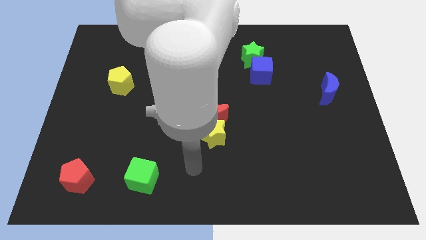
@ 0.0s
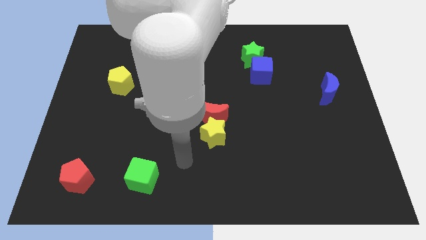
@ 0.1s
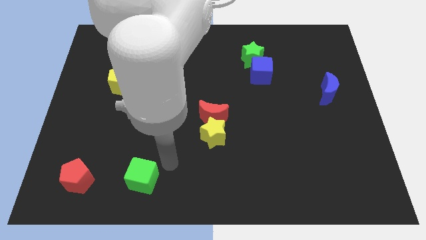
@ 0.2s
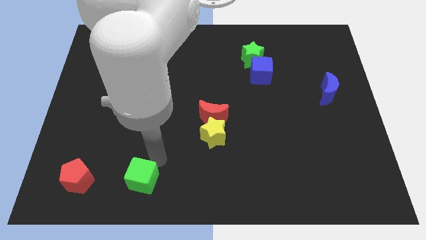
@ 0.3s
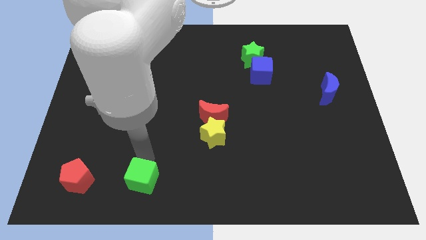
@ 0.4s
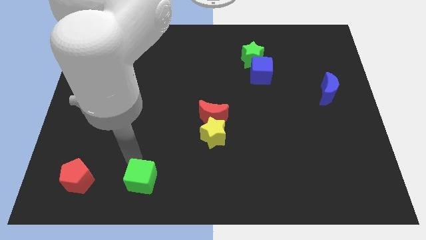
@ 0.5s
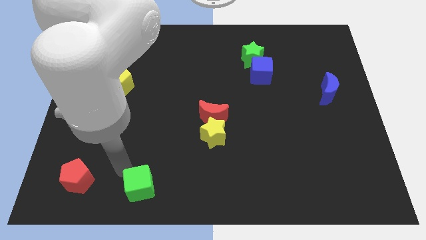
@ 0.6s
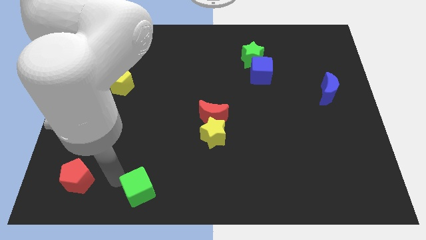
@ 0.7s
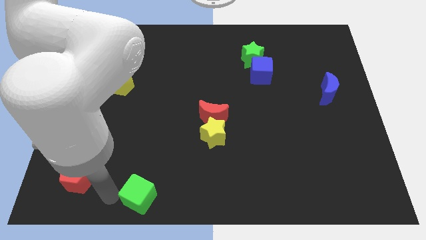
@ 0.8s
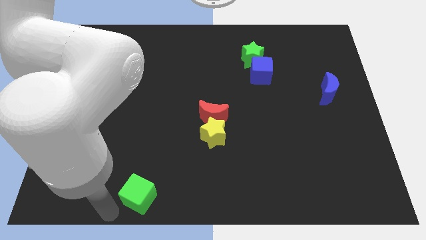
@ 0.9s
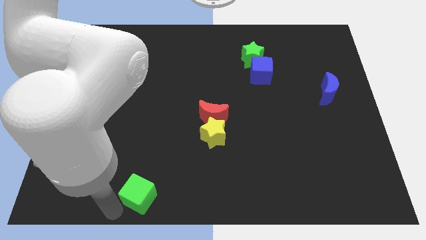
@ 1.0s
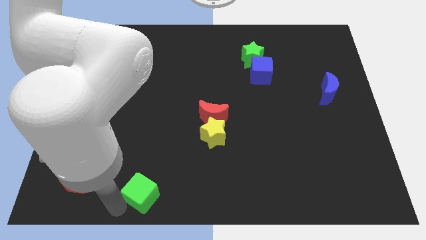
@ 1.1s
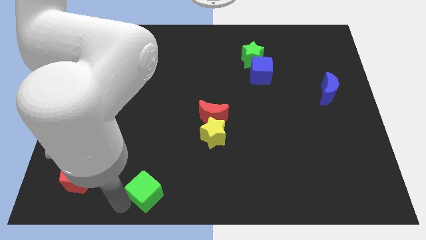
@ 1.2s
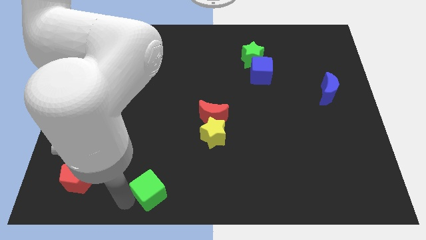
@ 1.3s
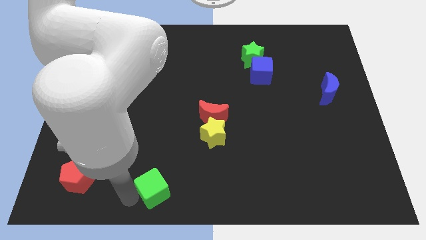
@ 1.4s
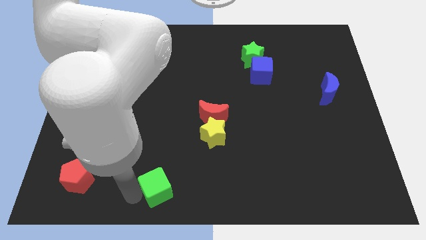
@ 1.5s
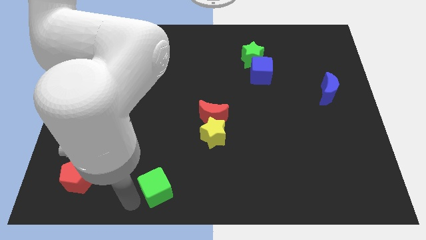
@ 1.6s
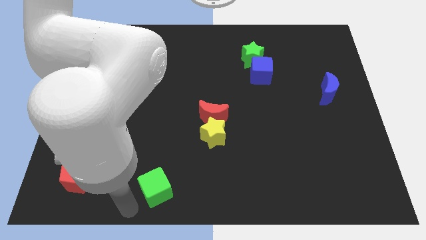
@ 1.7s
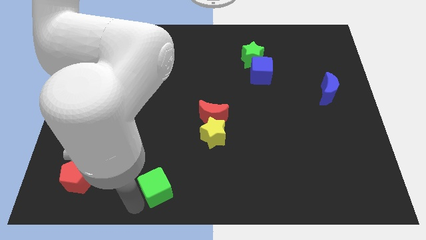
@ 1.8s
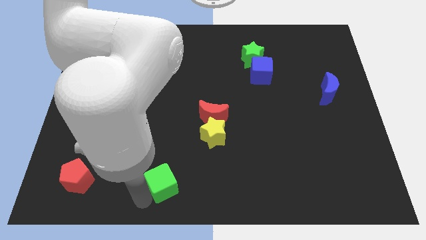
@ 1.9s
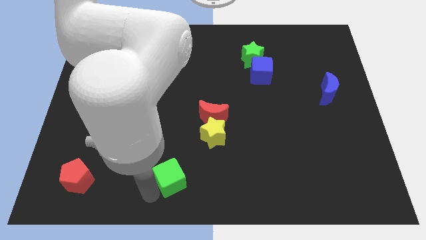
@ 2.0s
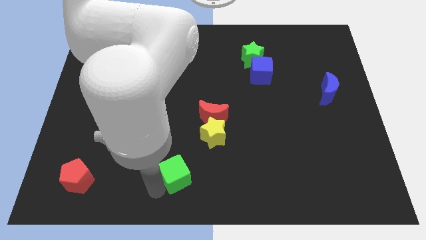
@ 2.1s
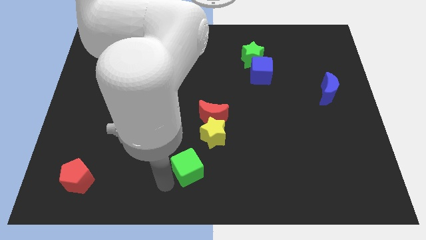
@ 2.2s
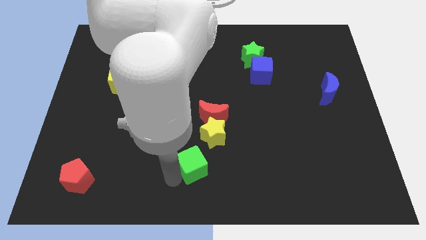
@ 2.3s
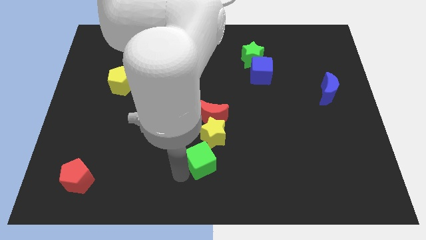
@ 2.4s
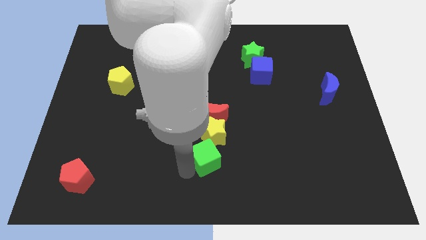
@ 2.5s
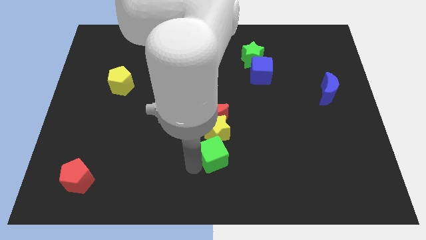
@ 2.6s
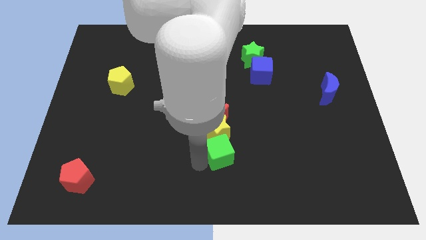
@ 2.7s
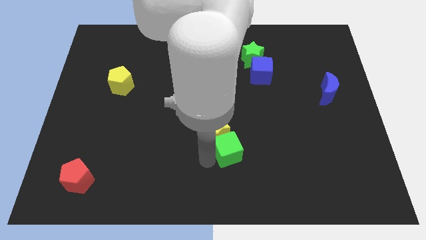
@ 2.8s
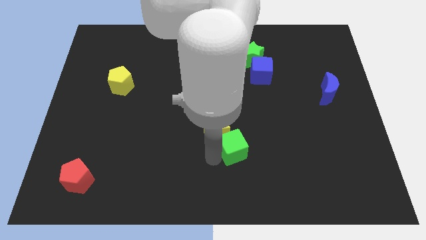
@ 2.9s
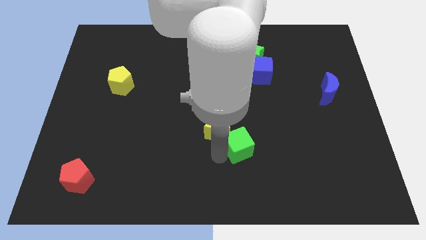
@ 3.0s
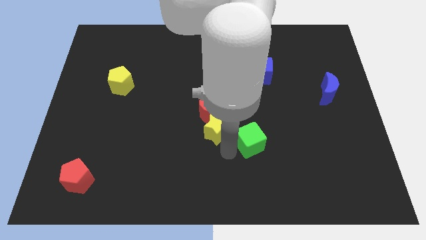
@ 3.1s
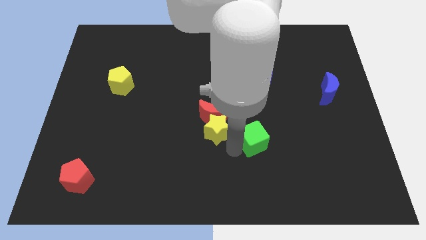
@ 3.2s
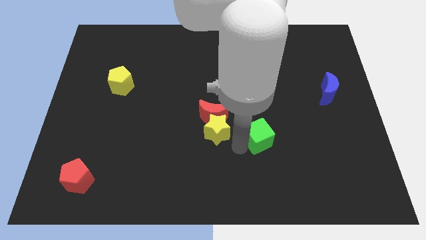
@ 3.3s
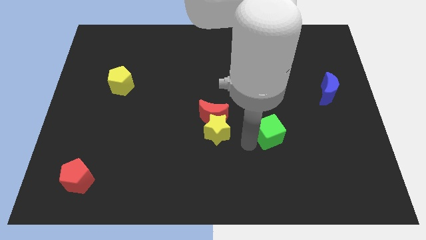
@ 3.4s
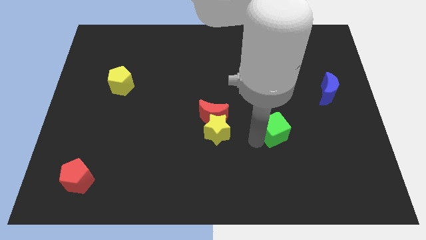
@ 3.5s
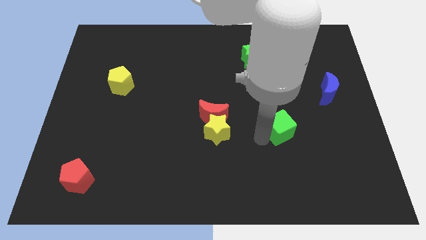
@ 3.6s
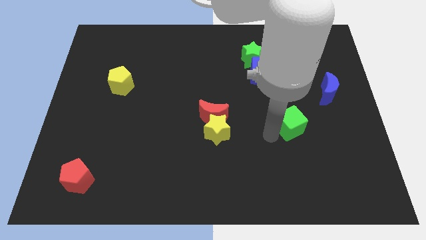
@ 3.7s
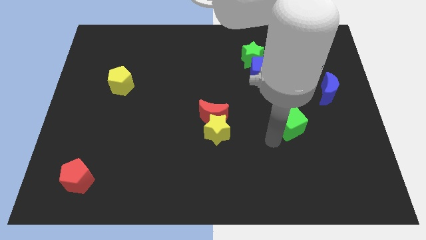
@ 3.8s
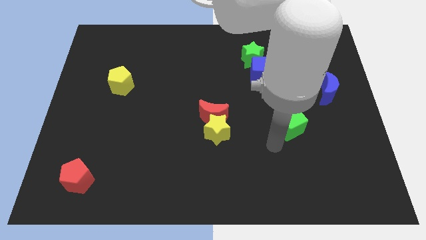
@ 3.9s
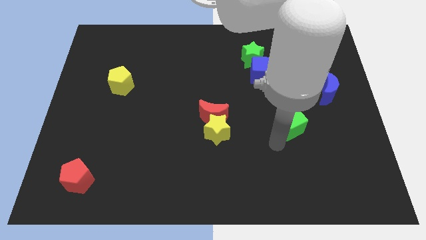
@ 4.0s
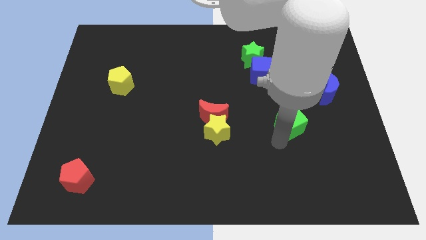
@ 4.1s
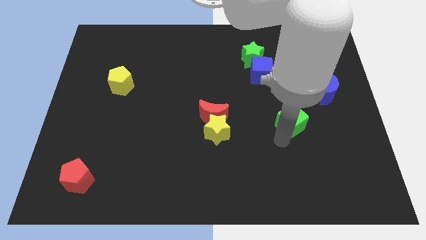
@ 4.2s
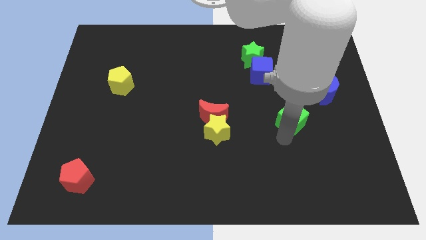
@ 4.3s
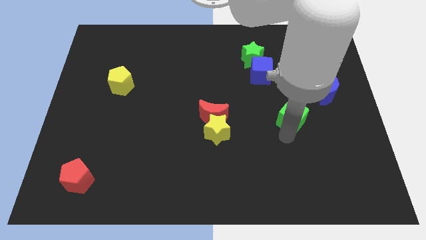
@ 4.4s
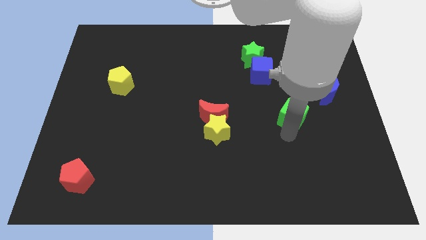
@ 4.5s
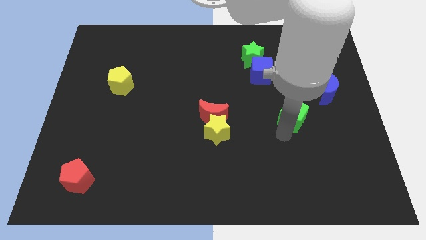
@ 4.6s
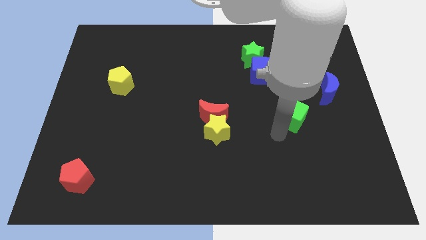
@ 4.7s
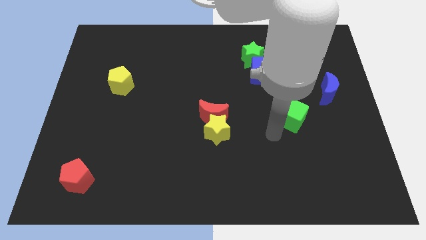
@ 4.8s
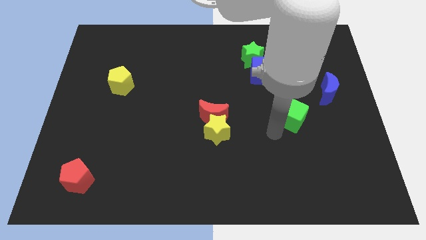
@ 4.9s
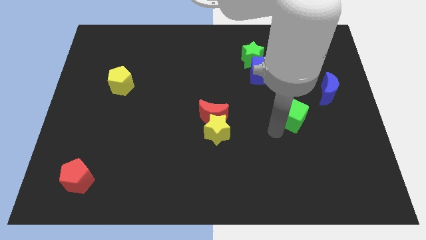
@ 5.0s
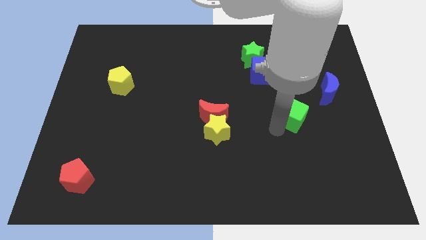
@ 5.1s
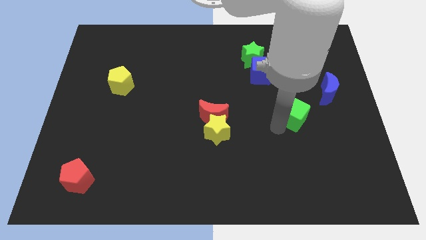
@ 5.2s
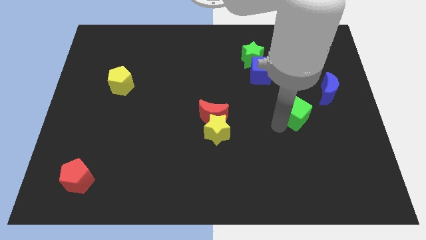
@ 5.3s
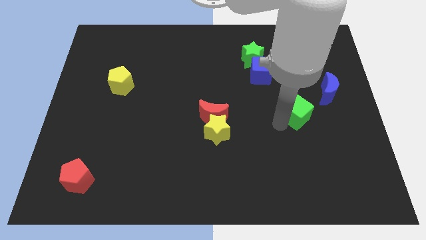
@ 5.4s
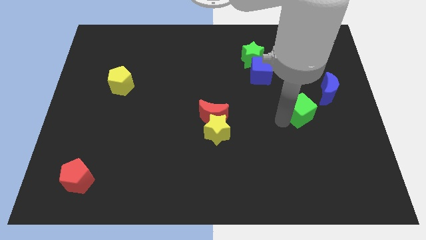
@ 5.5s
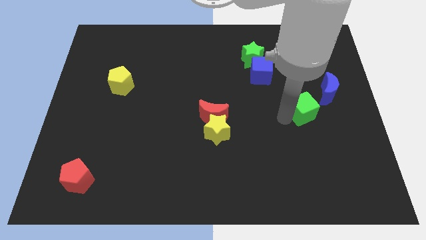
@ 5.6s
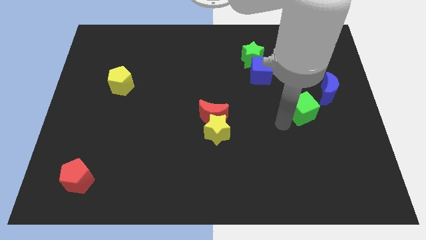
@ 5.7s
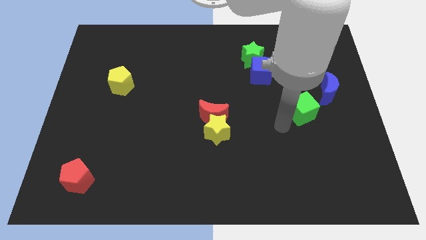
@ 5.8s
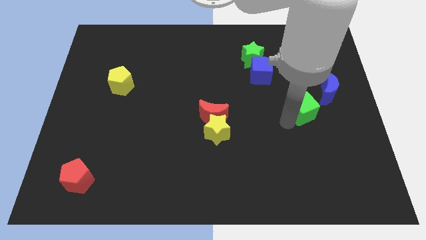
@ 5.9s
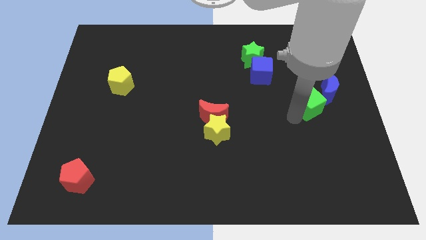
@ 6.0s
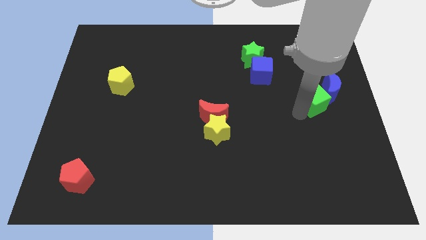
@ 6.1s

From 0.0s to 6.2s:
slide the green cube towards the blue moon

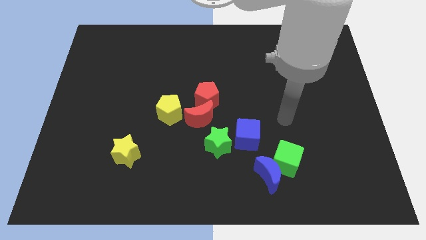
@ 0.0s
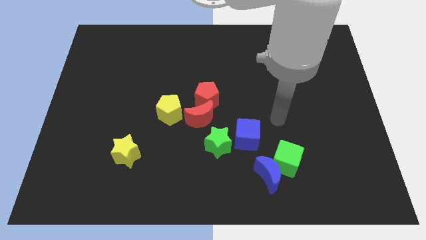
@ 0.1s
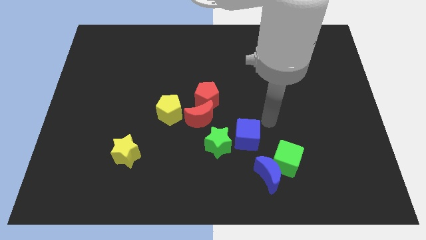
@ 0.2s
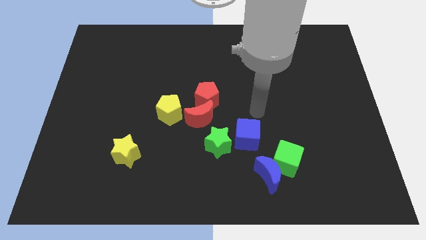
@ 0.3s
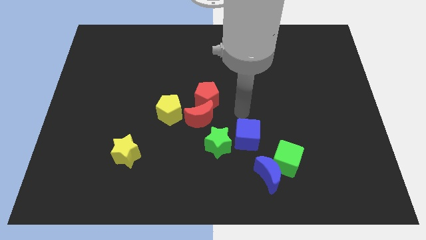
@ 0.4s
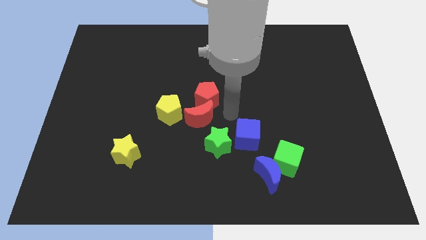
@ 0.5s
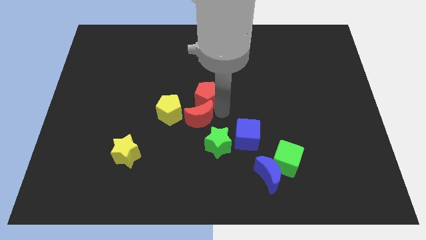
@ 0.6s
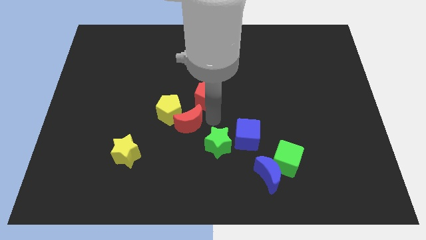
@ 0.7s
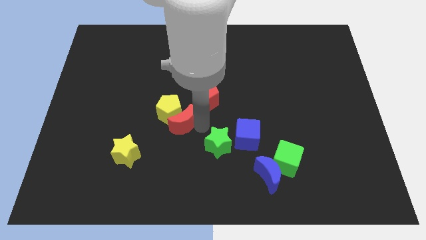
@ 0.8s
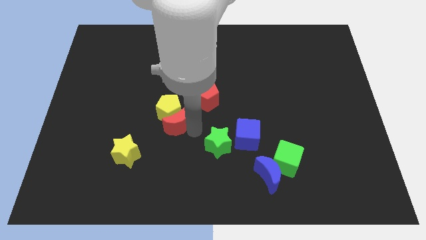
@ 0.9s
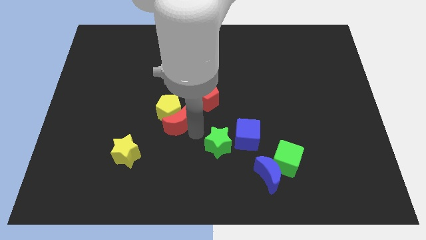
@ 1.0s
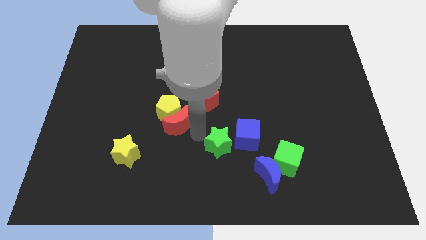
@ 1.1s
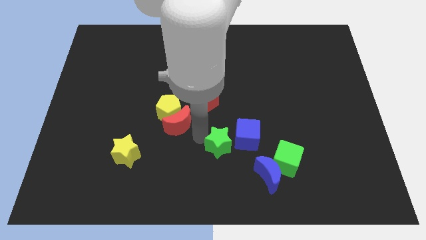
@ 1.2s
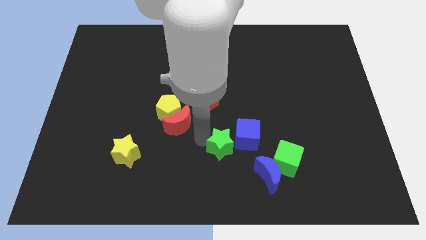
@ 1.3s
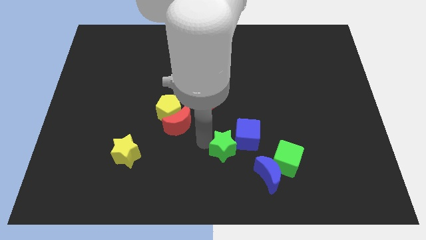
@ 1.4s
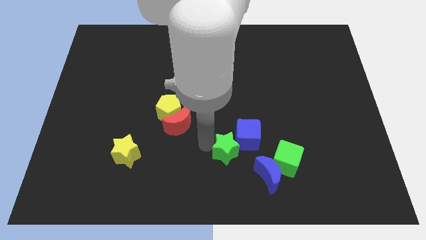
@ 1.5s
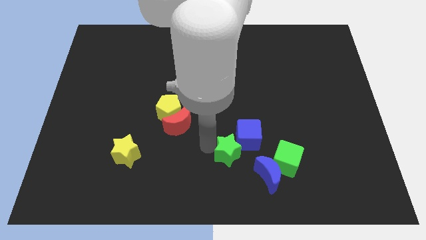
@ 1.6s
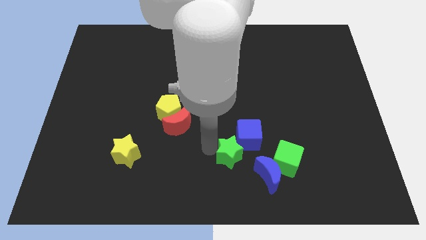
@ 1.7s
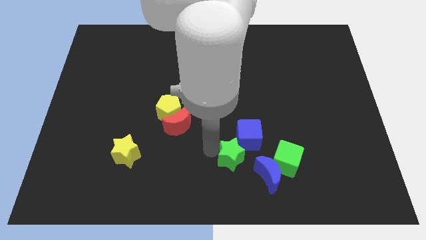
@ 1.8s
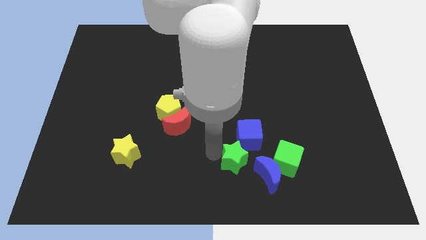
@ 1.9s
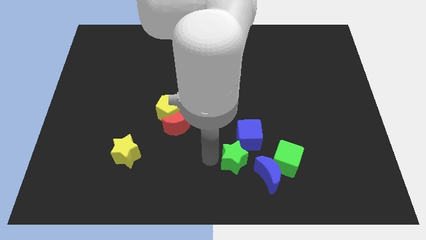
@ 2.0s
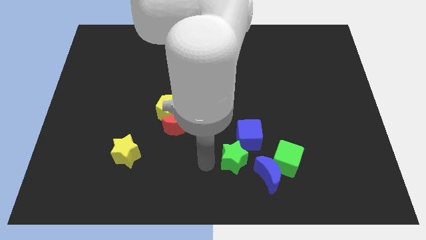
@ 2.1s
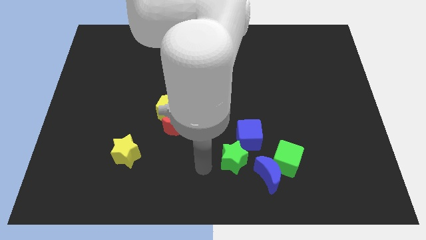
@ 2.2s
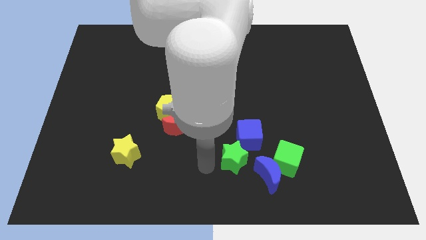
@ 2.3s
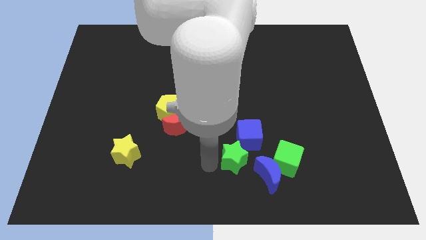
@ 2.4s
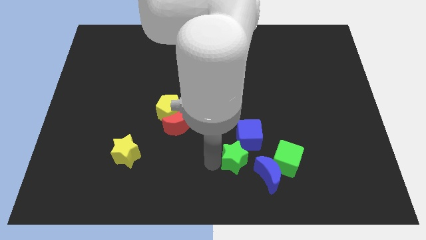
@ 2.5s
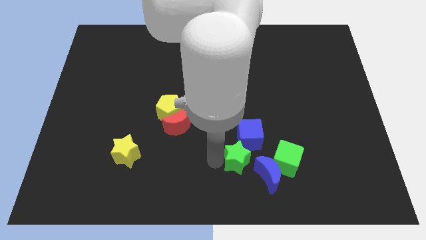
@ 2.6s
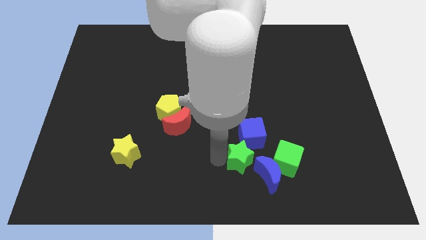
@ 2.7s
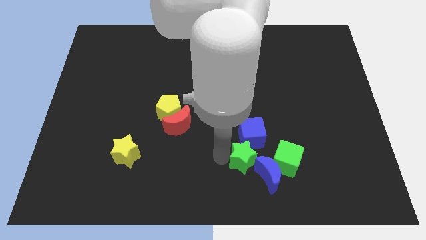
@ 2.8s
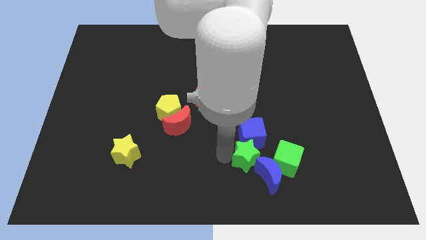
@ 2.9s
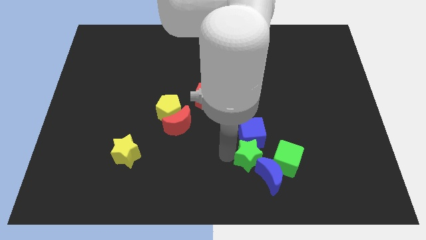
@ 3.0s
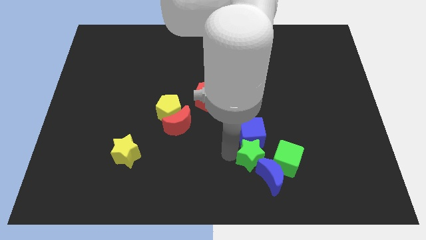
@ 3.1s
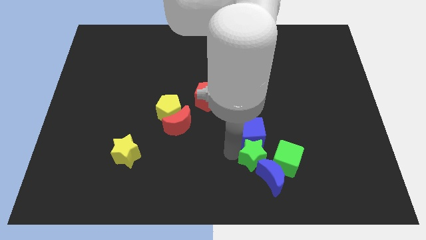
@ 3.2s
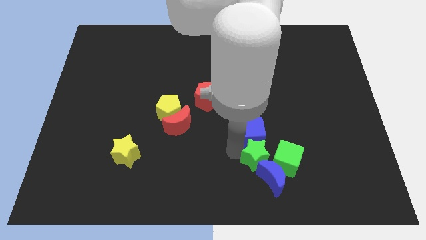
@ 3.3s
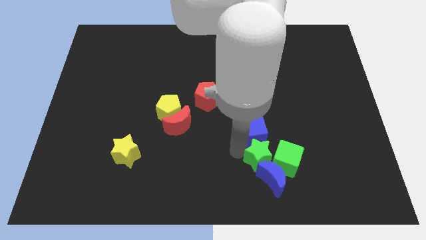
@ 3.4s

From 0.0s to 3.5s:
put the green star next to the green cube
